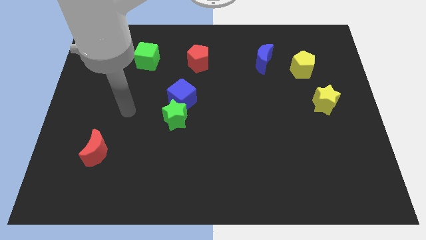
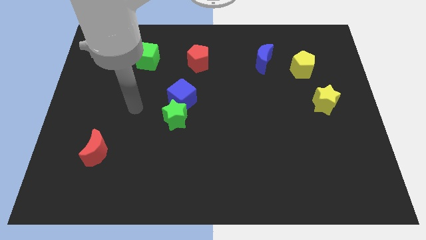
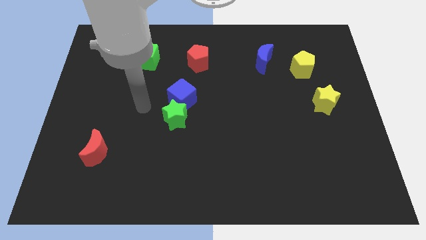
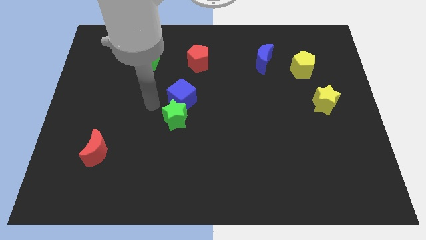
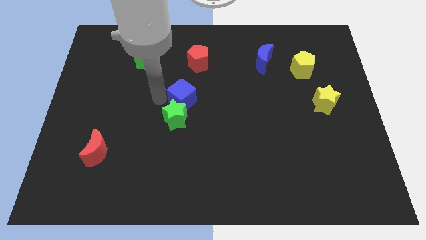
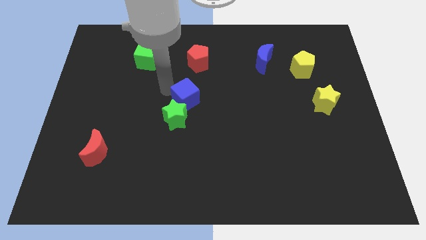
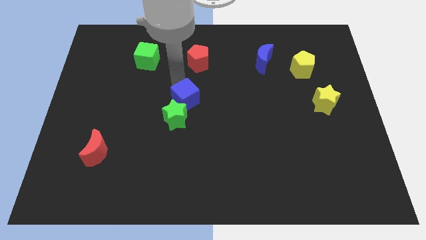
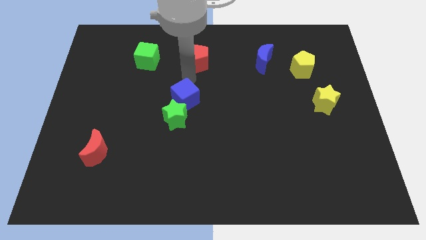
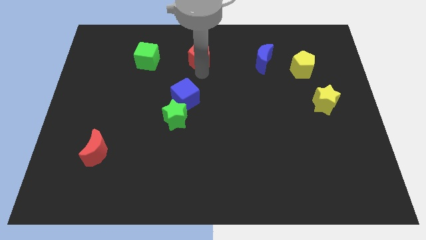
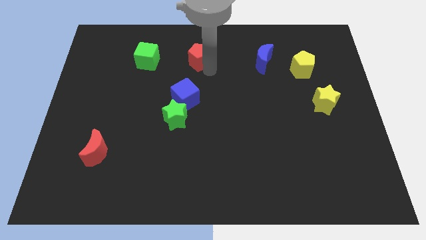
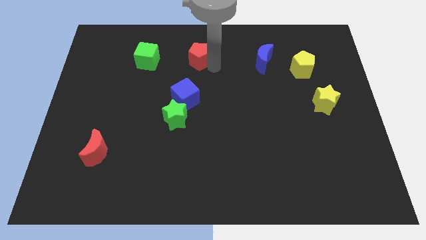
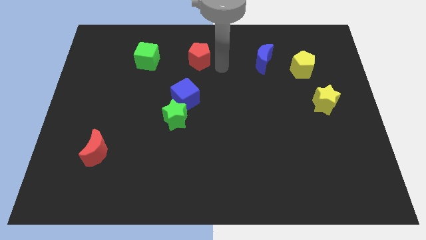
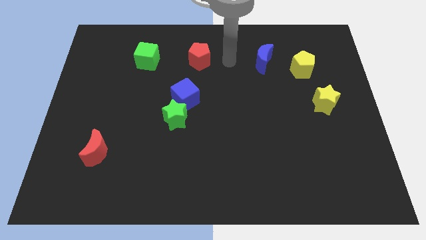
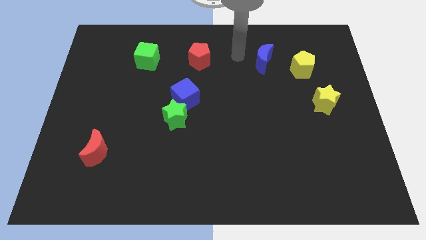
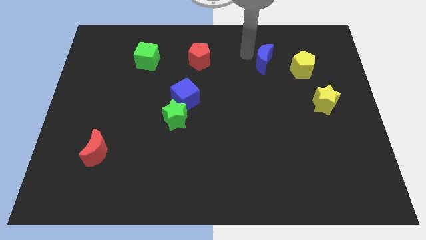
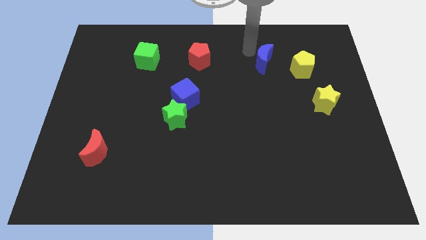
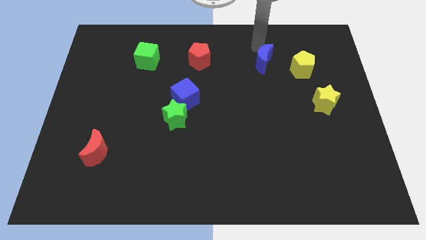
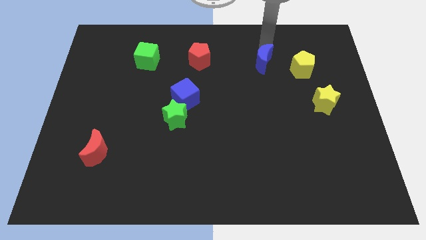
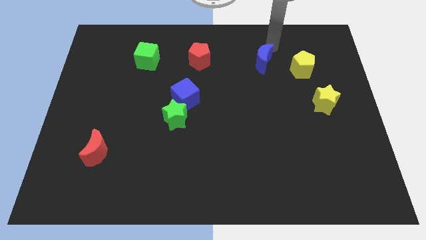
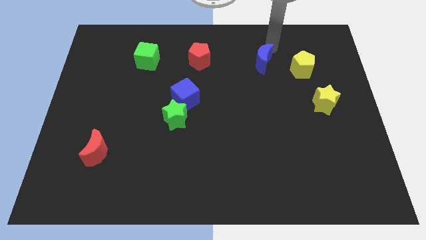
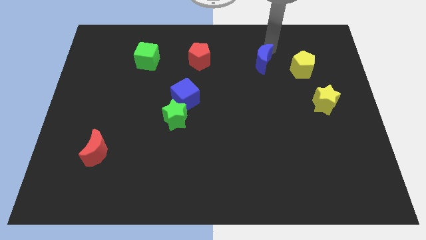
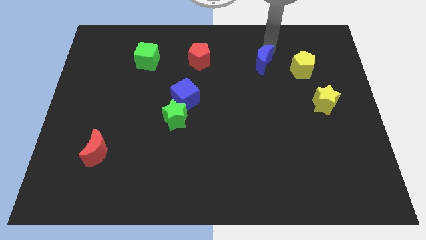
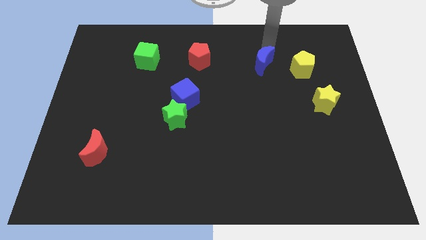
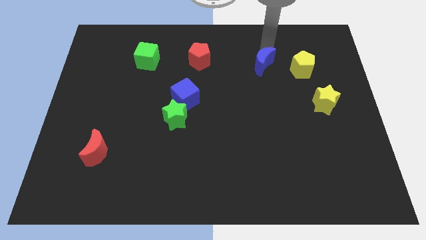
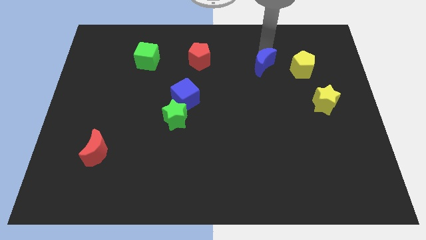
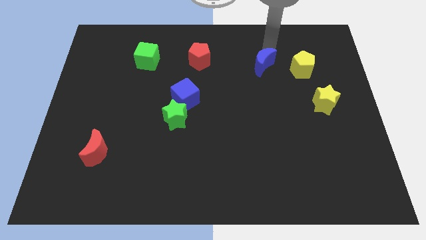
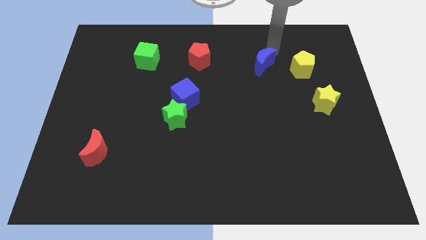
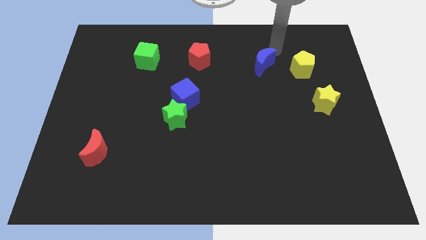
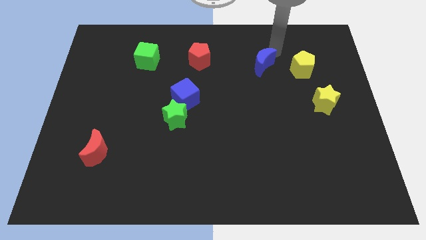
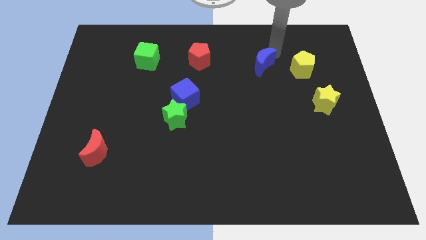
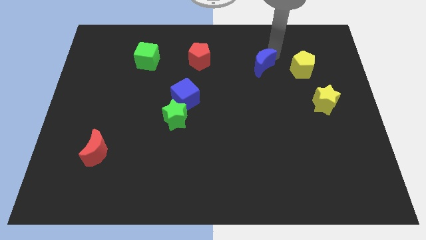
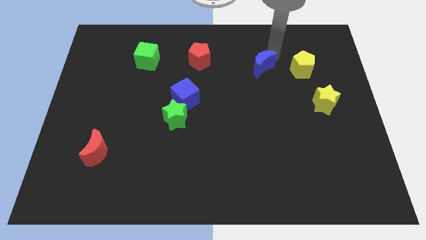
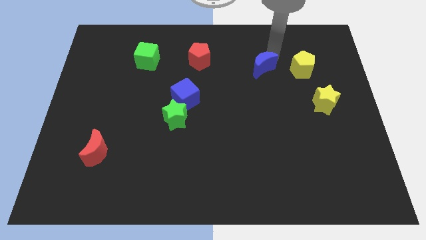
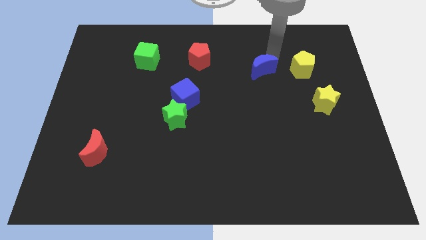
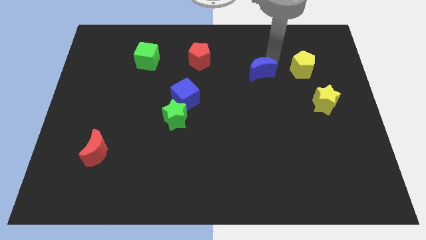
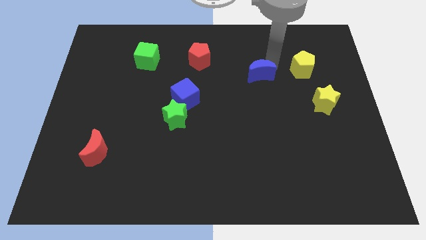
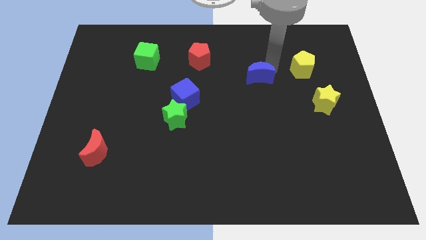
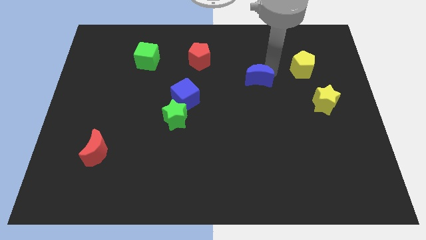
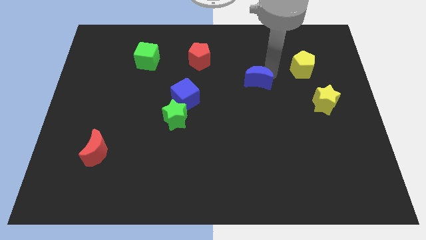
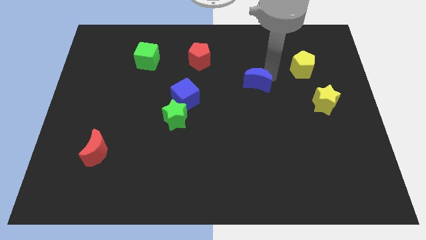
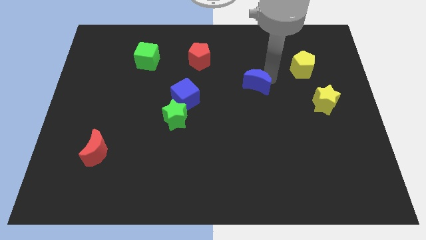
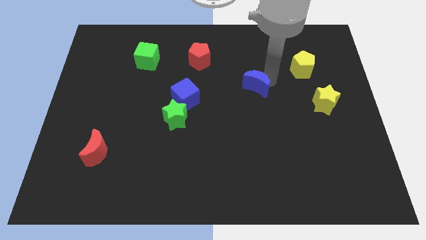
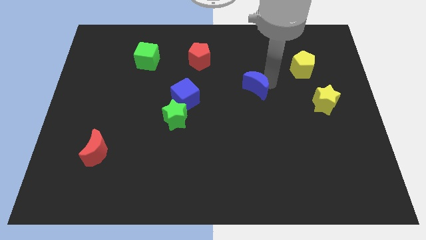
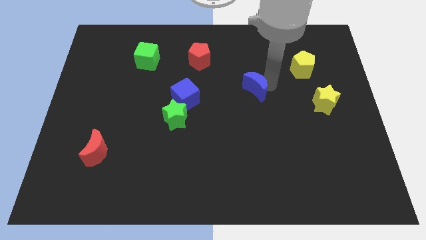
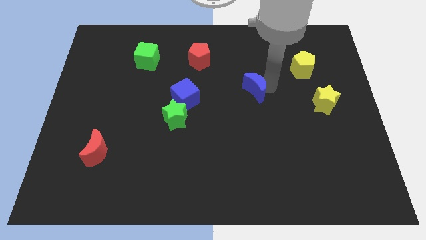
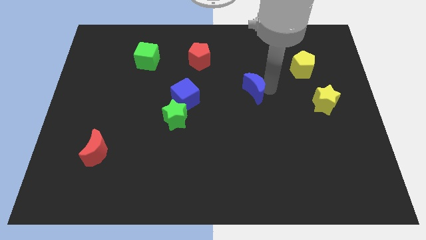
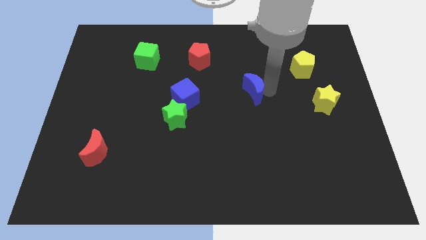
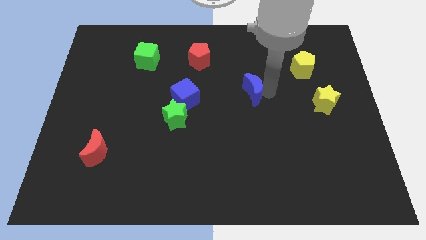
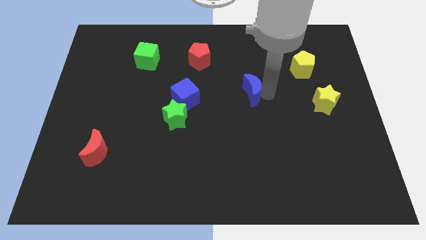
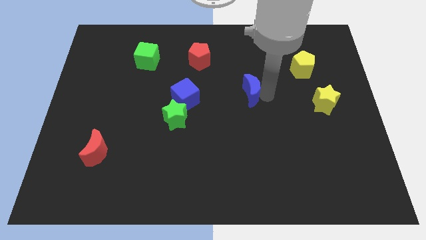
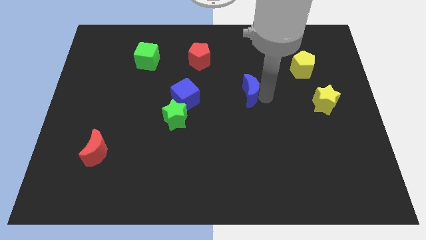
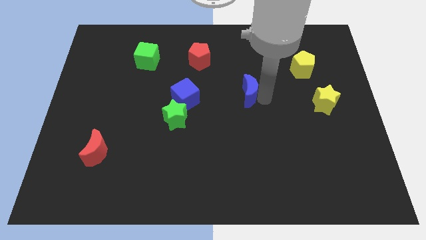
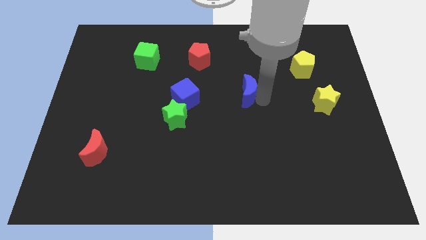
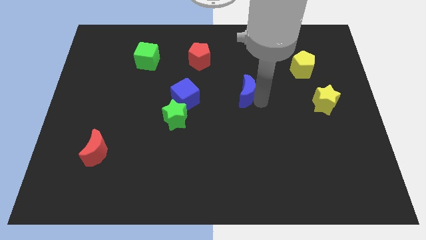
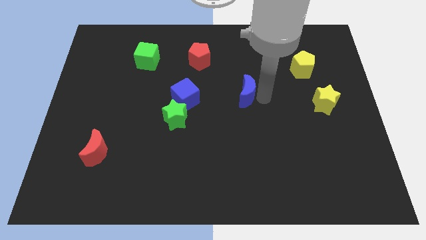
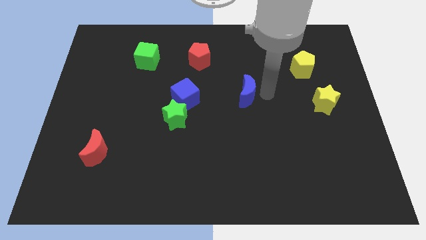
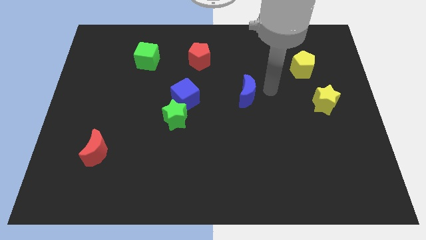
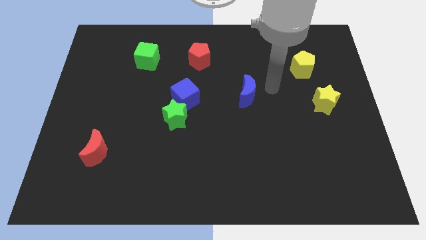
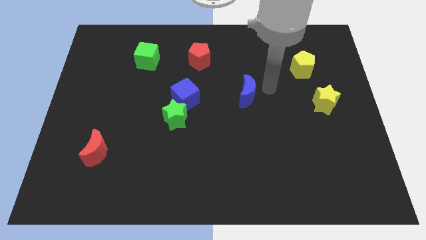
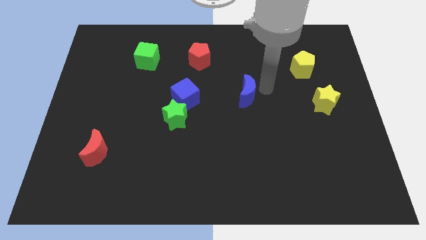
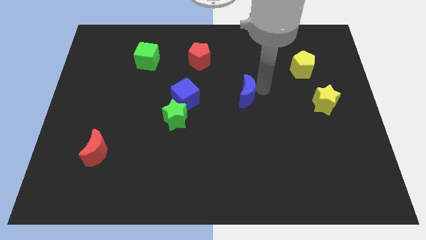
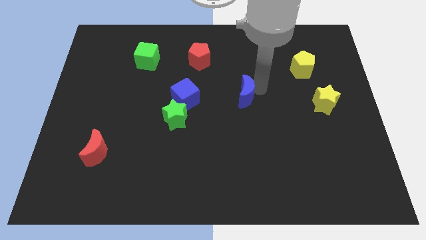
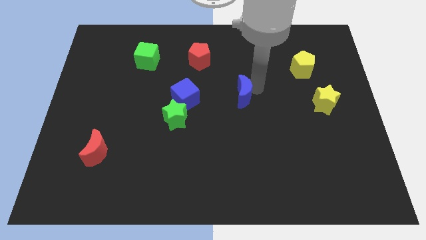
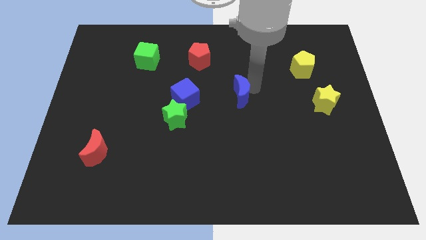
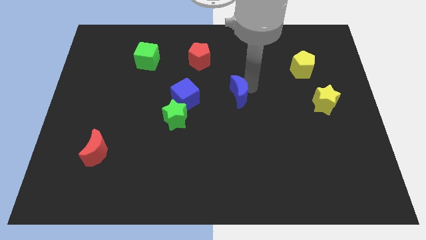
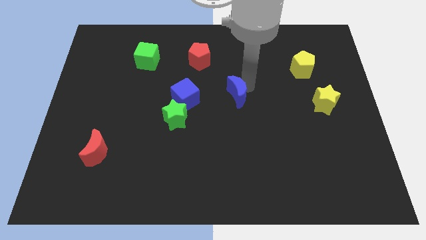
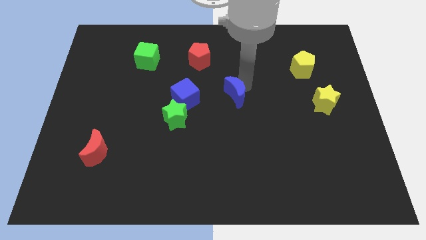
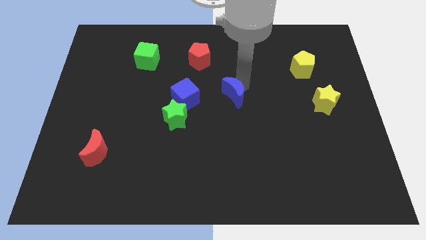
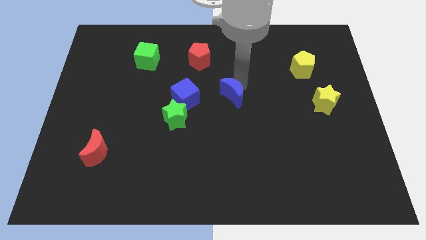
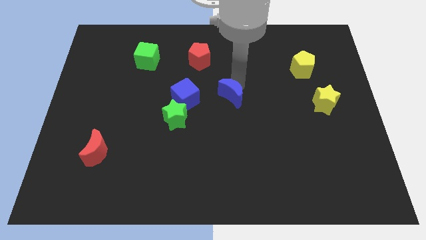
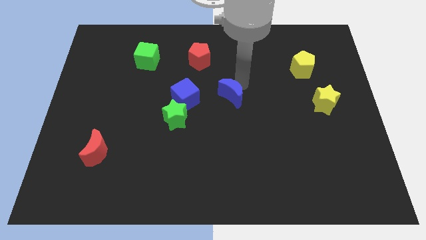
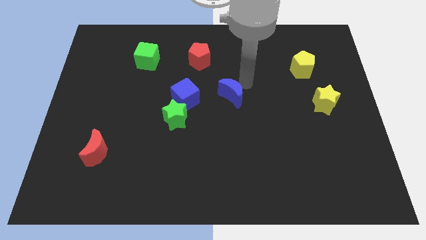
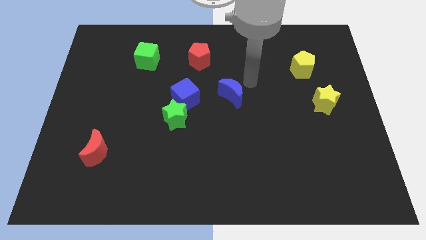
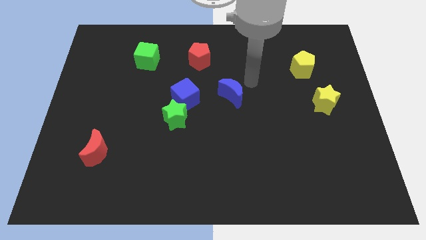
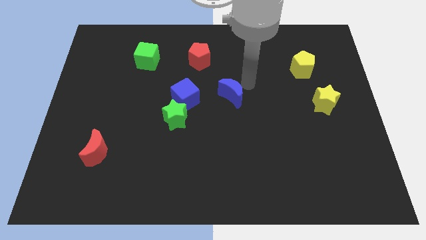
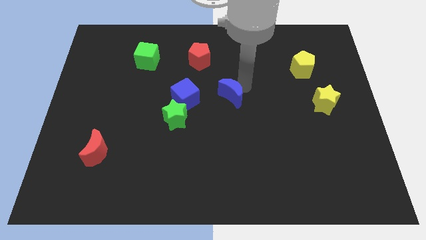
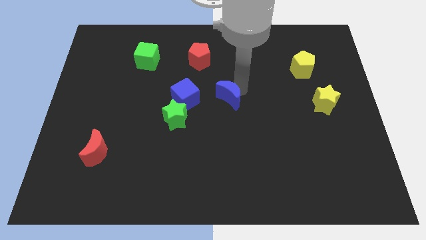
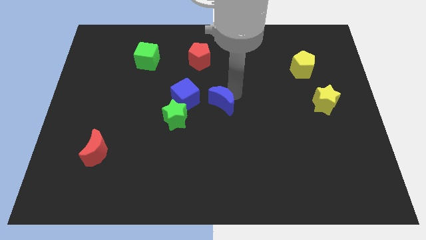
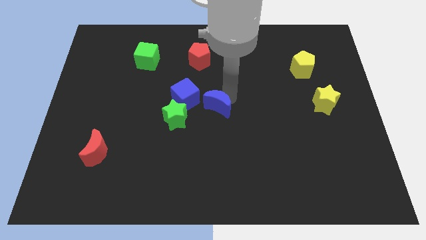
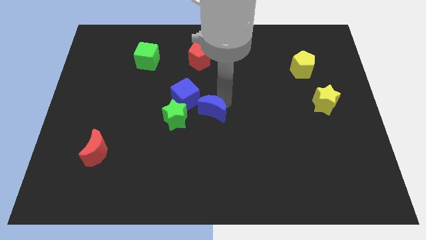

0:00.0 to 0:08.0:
move the blue moon down and left diagonally

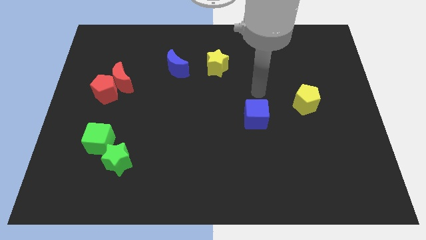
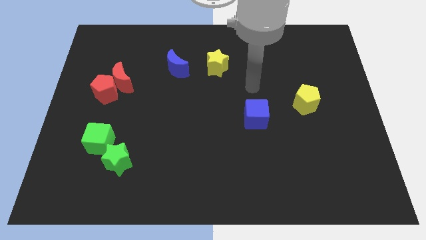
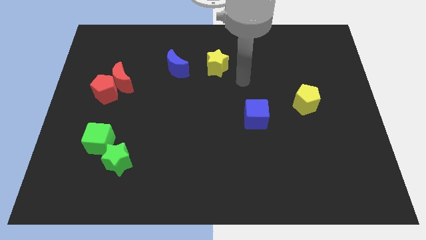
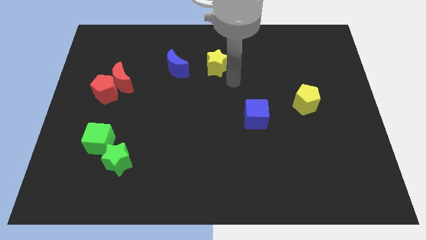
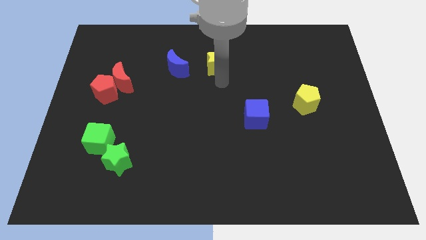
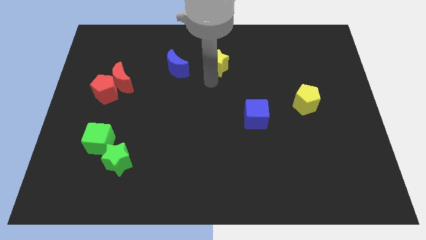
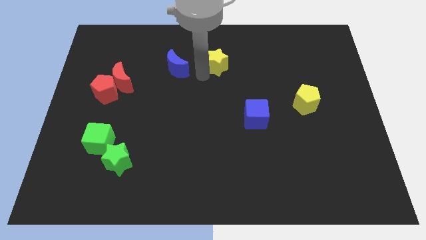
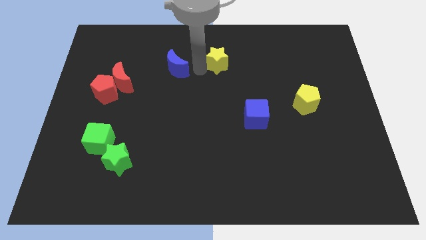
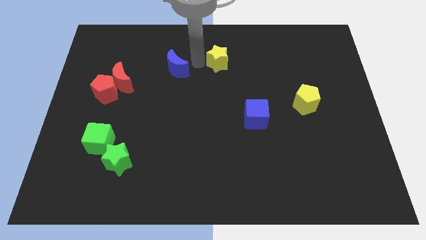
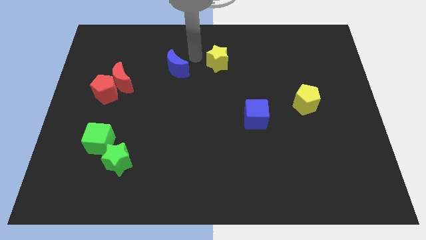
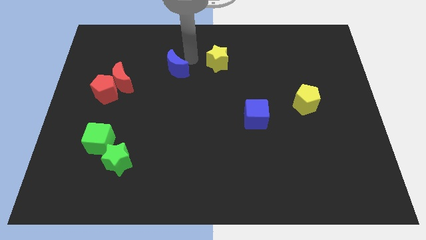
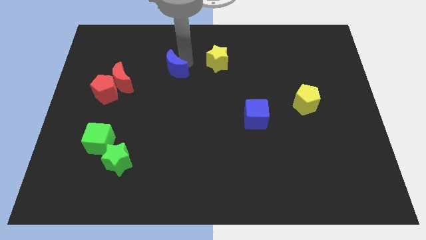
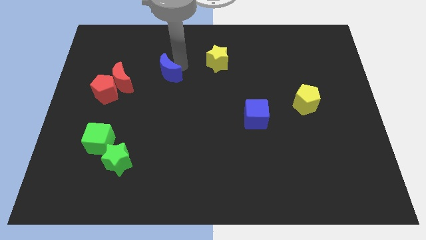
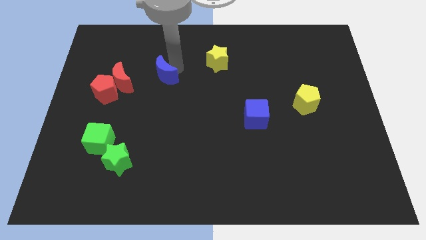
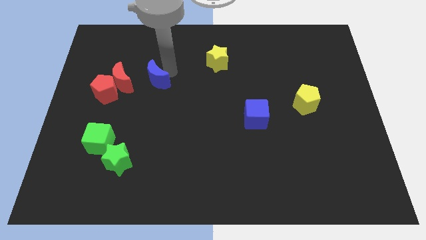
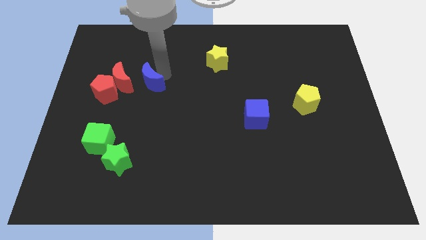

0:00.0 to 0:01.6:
push the blue moon slightly diagonally down and left
